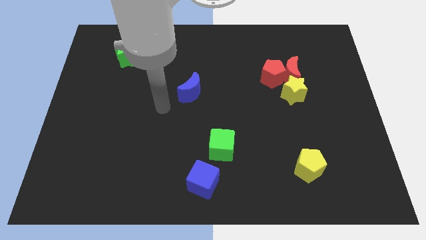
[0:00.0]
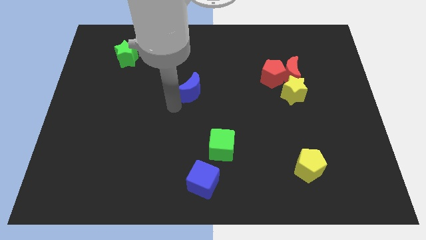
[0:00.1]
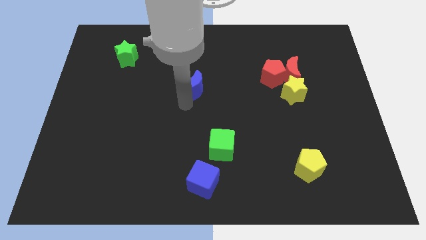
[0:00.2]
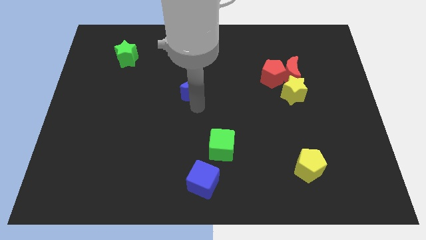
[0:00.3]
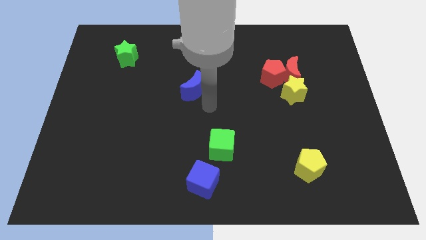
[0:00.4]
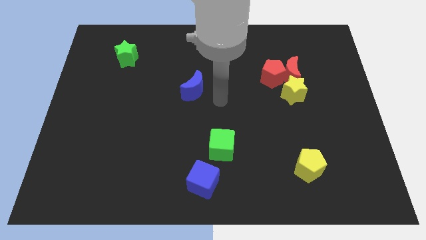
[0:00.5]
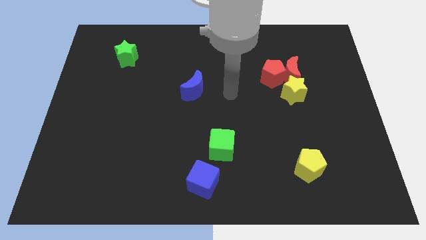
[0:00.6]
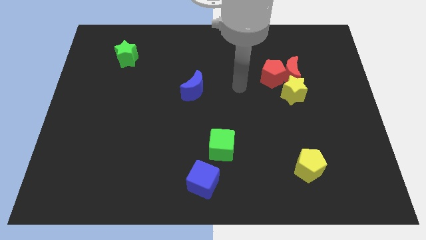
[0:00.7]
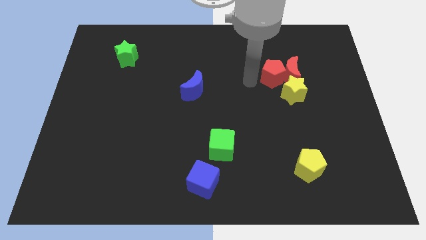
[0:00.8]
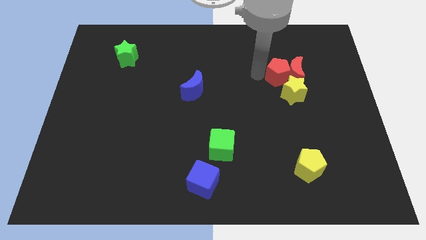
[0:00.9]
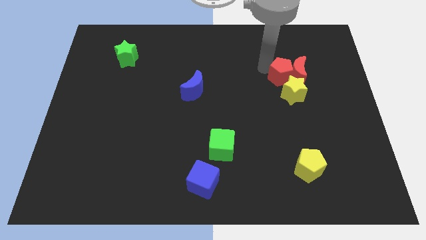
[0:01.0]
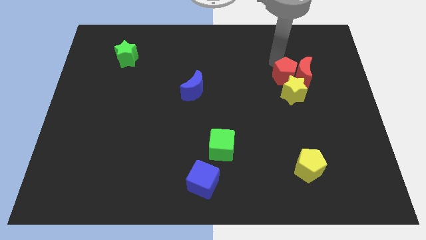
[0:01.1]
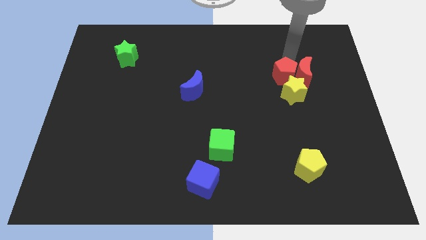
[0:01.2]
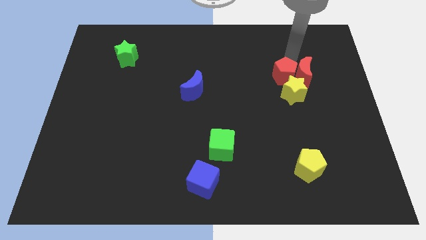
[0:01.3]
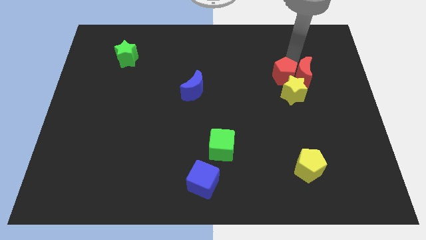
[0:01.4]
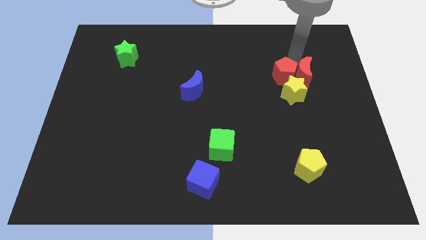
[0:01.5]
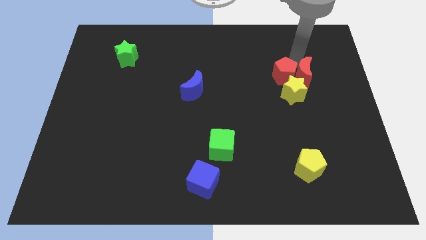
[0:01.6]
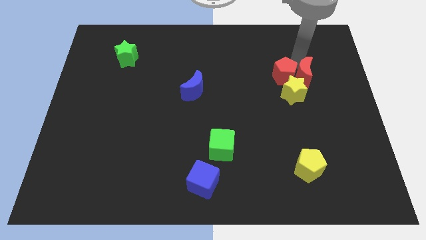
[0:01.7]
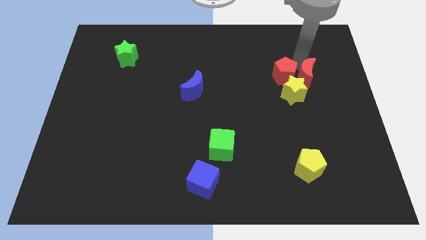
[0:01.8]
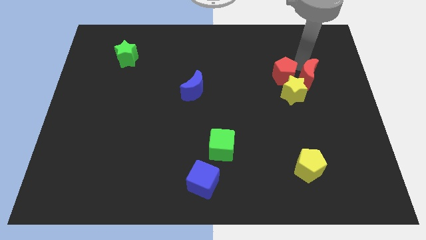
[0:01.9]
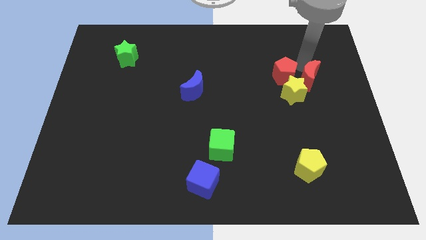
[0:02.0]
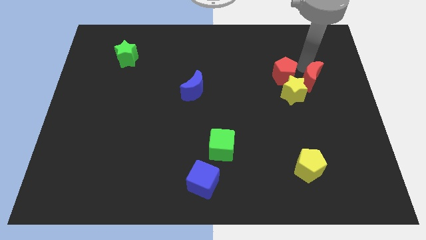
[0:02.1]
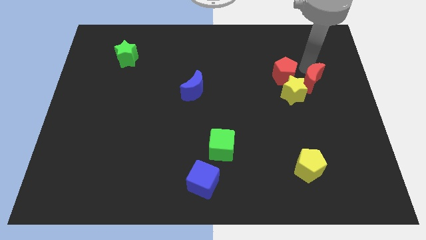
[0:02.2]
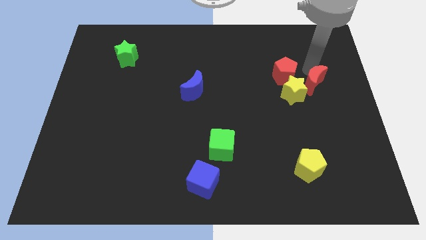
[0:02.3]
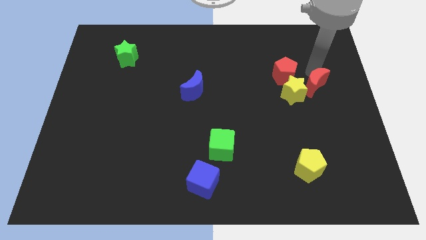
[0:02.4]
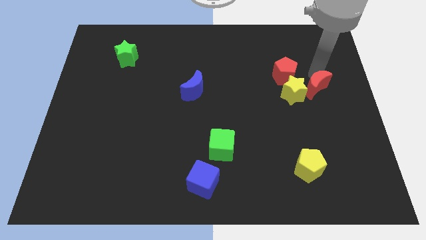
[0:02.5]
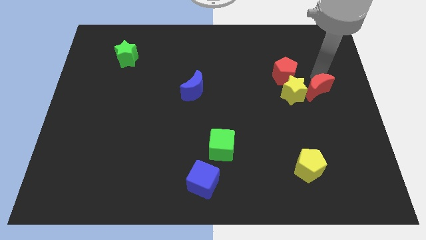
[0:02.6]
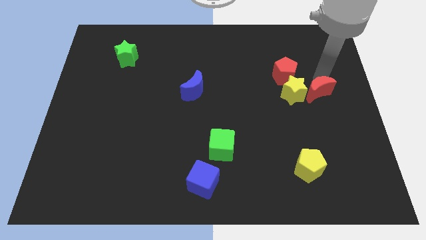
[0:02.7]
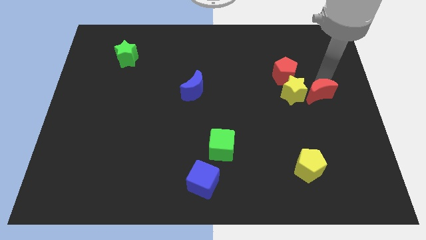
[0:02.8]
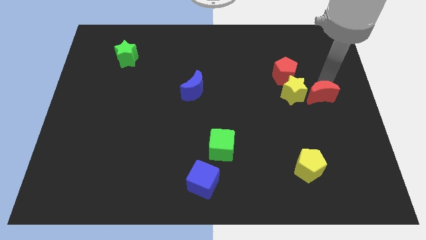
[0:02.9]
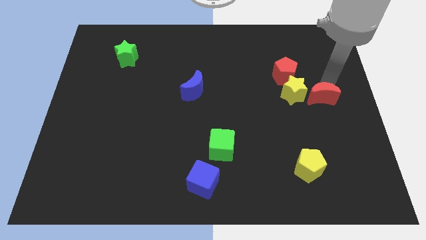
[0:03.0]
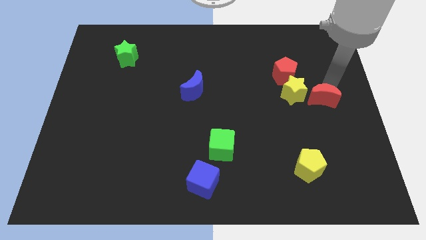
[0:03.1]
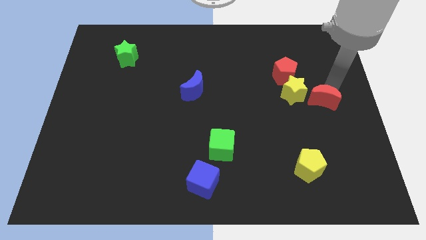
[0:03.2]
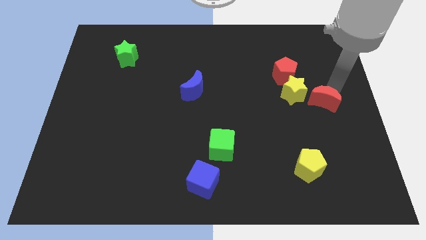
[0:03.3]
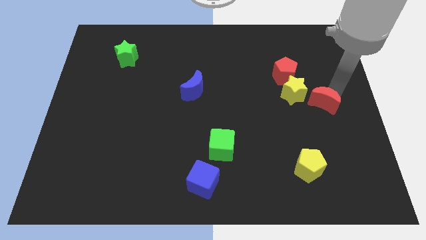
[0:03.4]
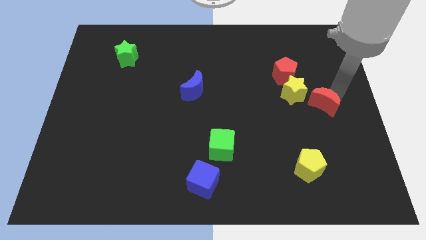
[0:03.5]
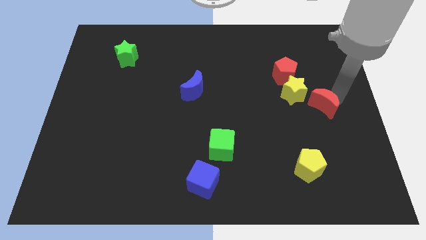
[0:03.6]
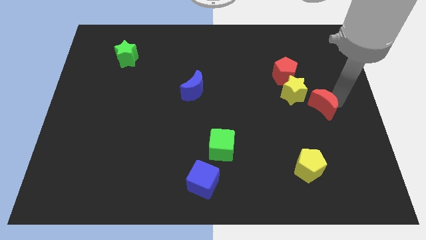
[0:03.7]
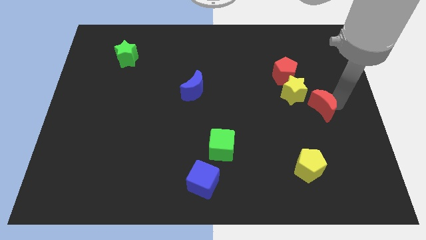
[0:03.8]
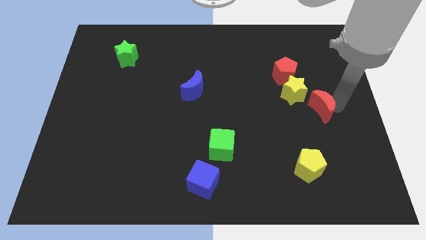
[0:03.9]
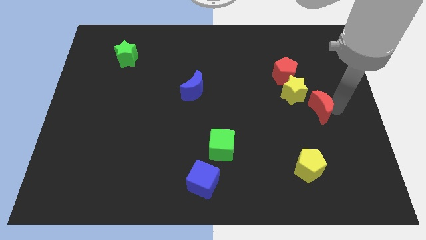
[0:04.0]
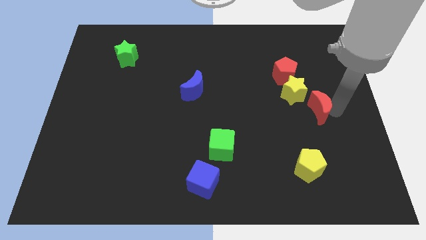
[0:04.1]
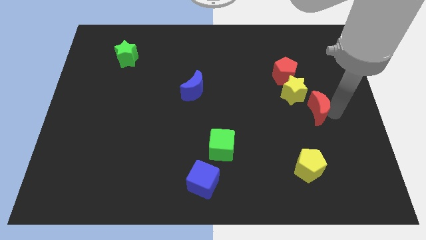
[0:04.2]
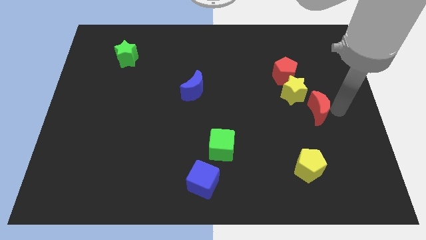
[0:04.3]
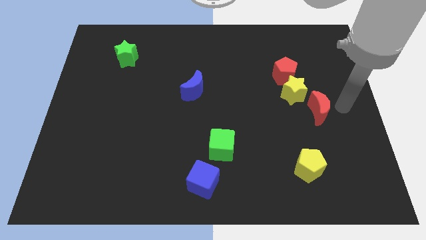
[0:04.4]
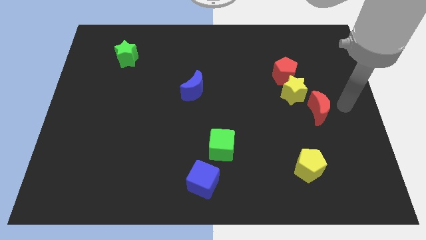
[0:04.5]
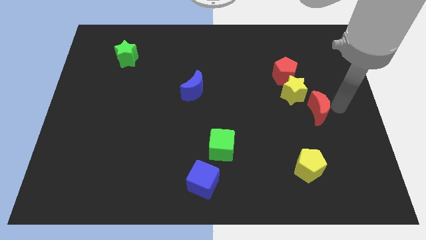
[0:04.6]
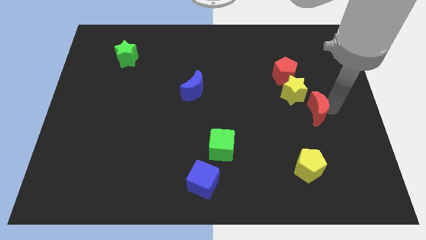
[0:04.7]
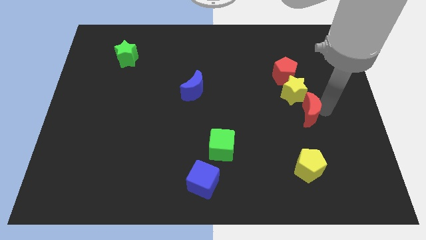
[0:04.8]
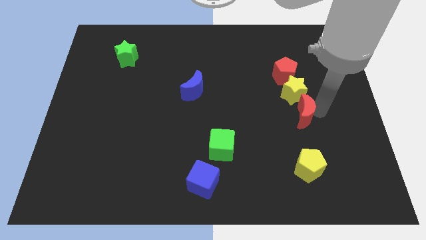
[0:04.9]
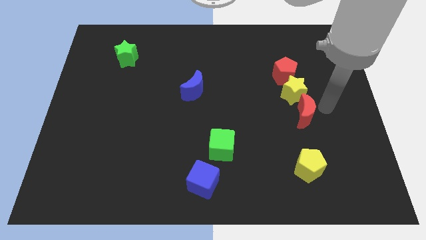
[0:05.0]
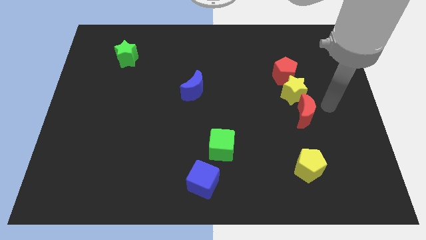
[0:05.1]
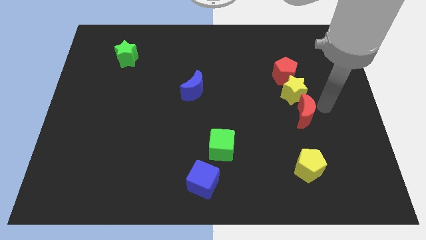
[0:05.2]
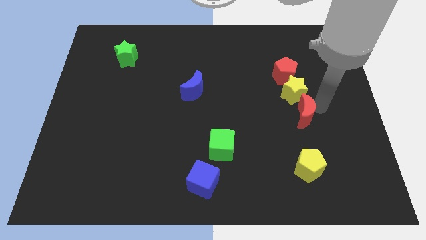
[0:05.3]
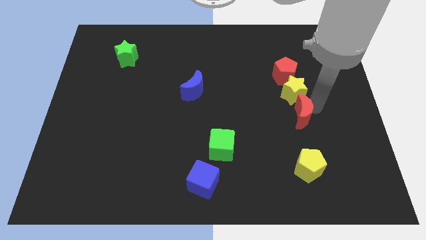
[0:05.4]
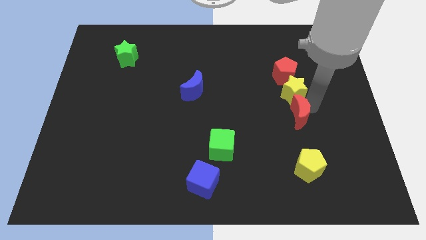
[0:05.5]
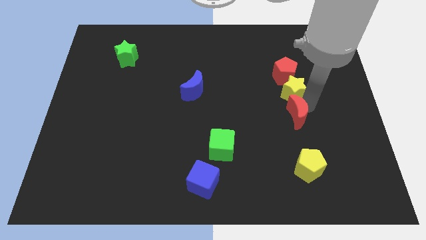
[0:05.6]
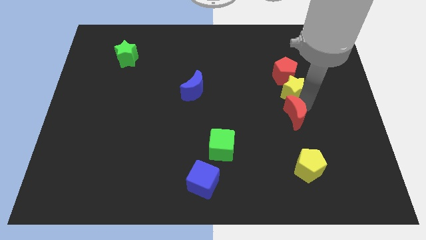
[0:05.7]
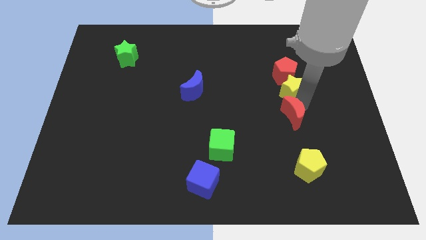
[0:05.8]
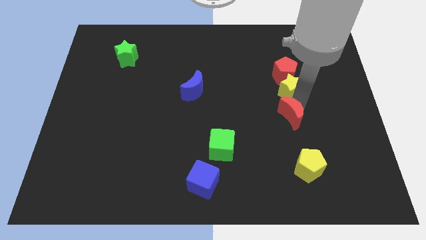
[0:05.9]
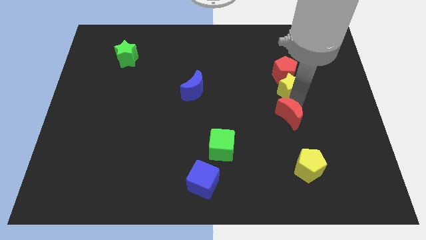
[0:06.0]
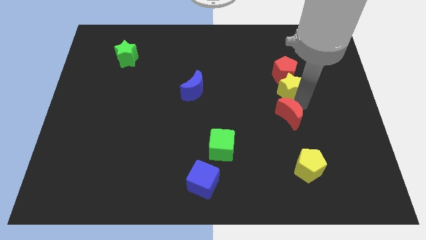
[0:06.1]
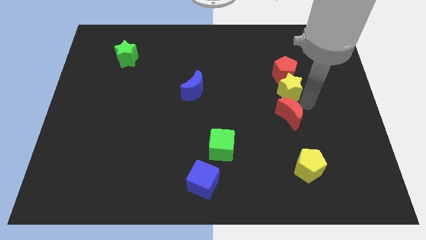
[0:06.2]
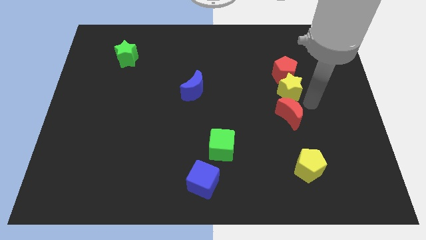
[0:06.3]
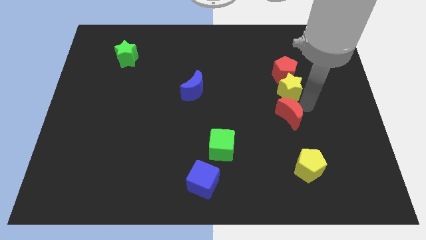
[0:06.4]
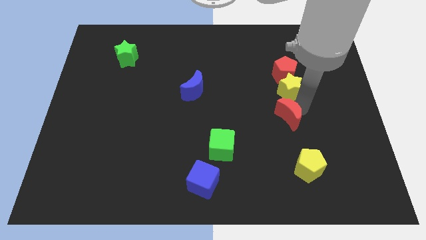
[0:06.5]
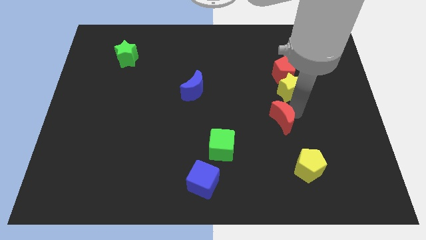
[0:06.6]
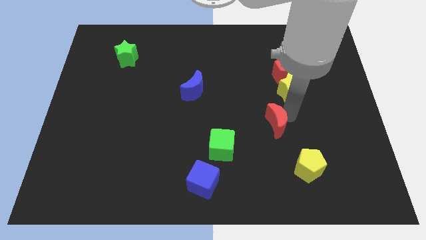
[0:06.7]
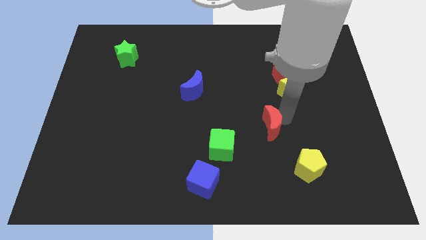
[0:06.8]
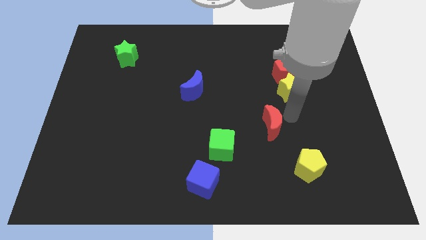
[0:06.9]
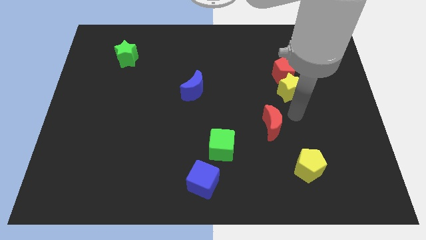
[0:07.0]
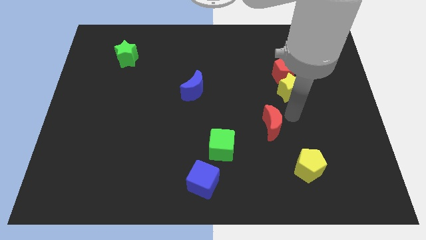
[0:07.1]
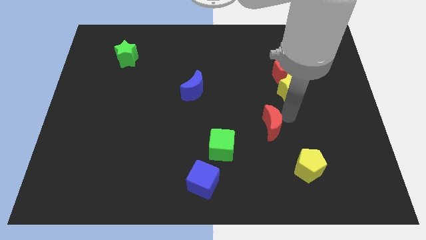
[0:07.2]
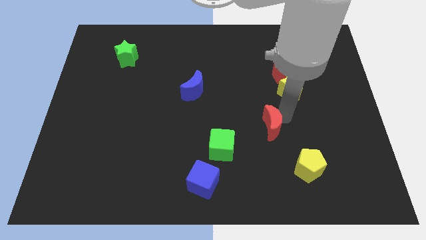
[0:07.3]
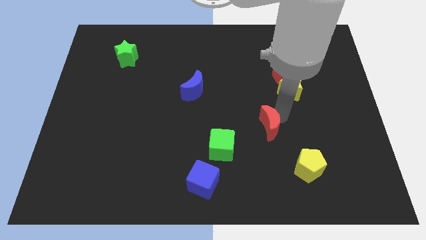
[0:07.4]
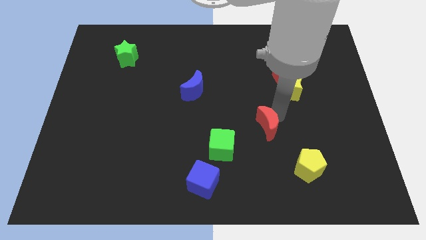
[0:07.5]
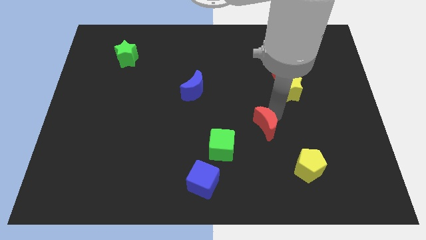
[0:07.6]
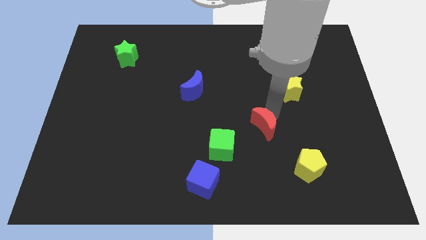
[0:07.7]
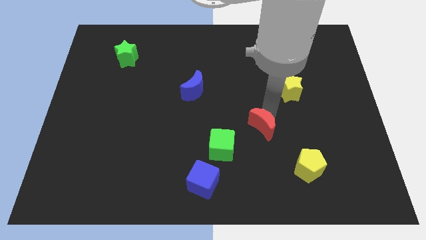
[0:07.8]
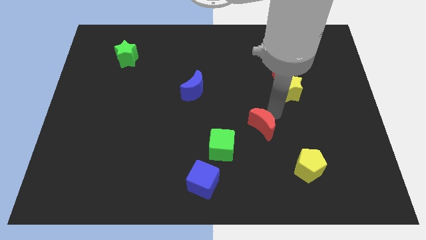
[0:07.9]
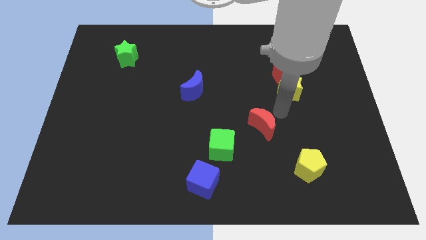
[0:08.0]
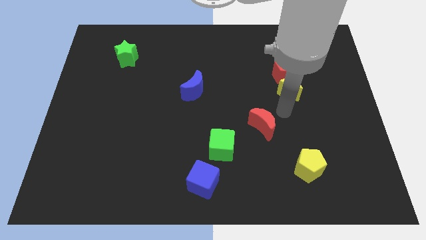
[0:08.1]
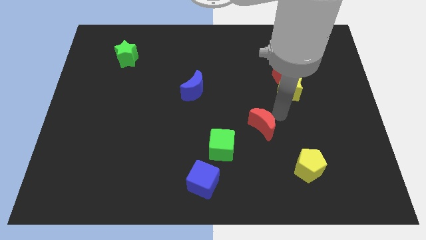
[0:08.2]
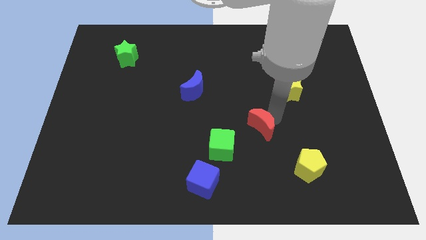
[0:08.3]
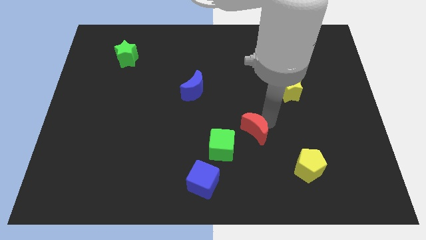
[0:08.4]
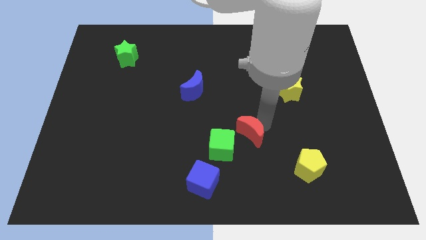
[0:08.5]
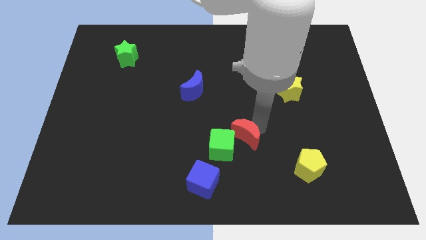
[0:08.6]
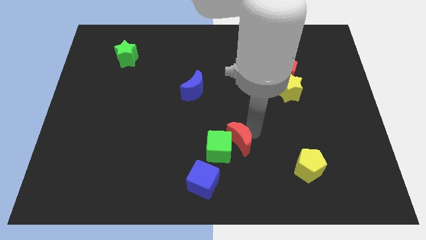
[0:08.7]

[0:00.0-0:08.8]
push the red moon close to the green cube
